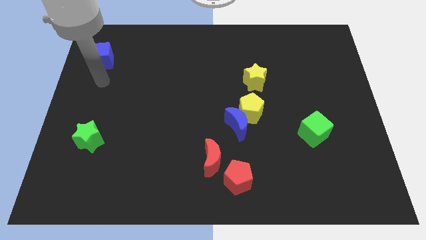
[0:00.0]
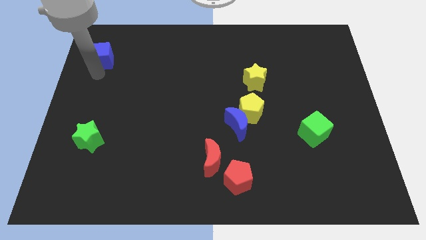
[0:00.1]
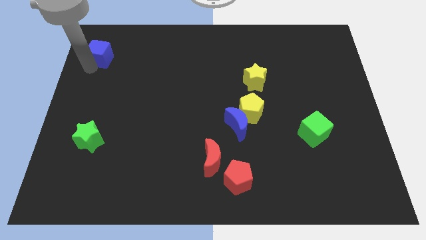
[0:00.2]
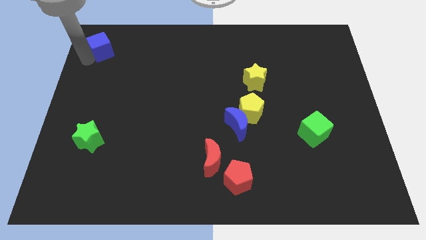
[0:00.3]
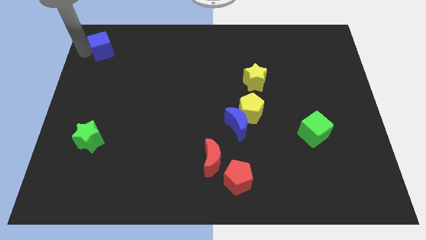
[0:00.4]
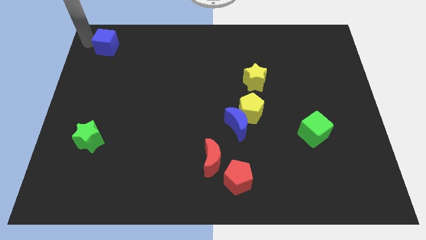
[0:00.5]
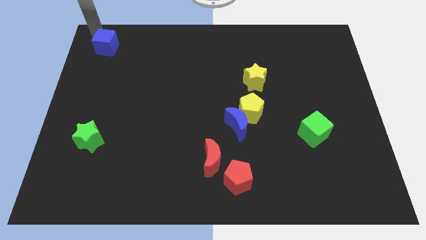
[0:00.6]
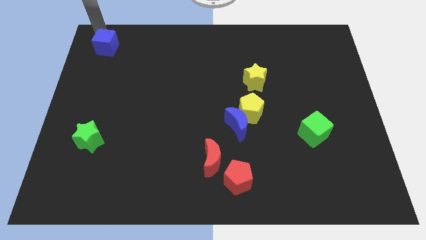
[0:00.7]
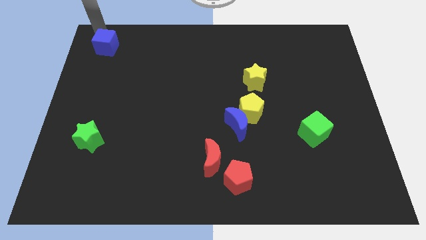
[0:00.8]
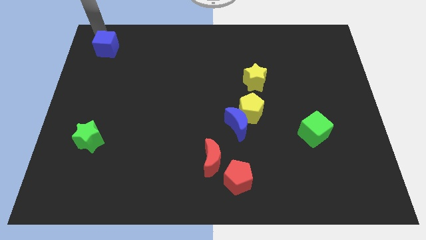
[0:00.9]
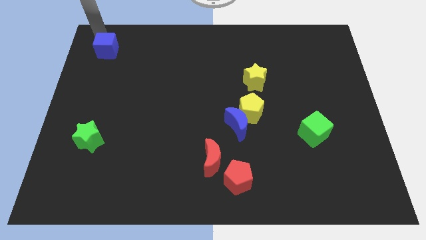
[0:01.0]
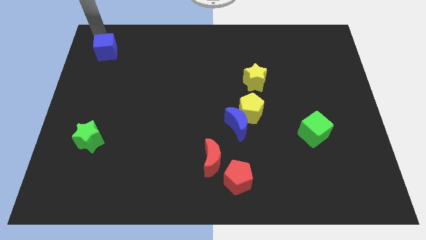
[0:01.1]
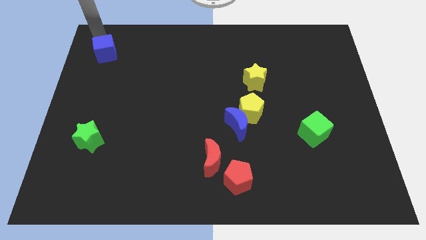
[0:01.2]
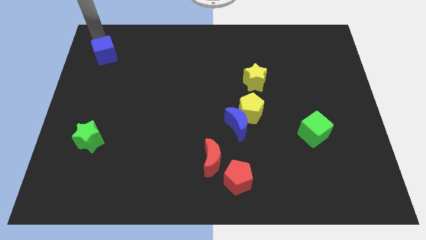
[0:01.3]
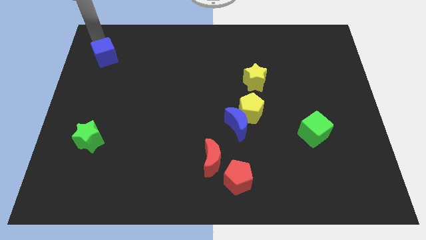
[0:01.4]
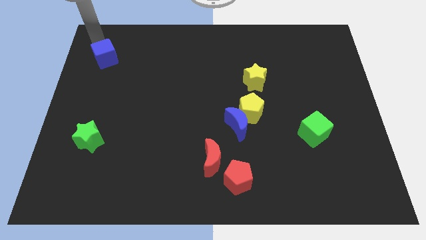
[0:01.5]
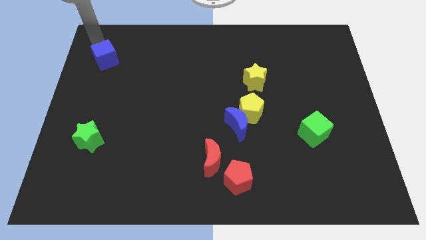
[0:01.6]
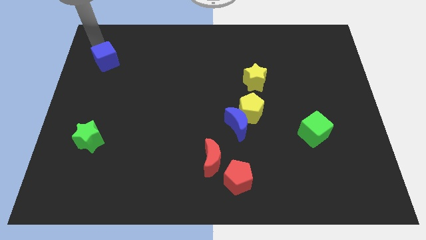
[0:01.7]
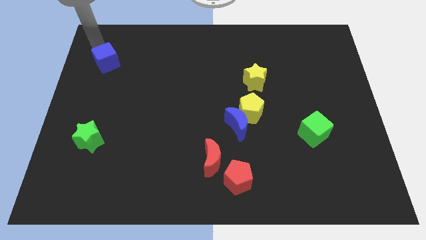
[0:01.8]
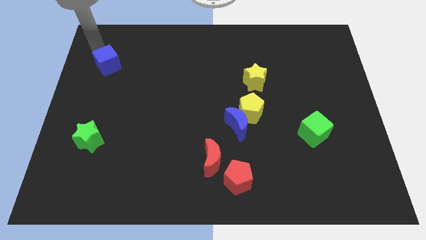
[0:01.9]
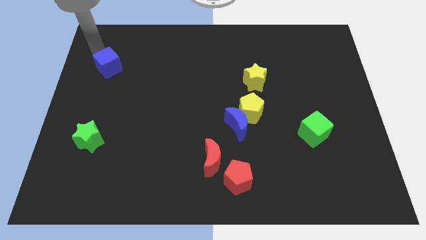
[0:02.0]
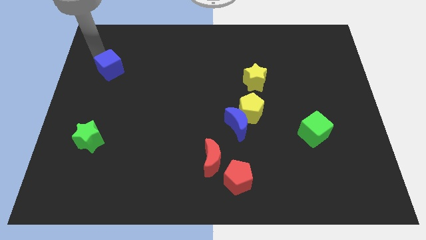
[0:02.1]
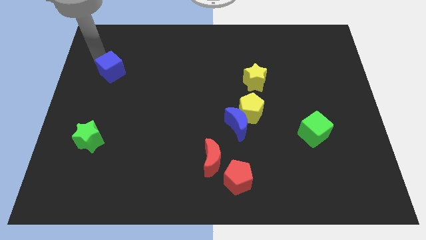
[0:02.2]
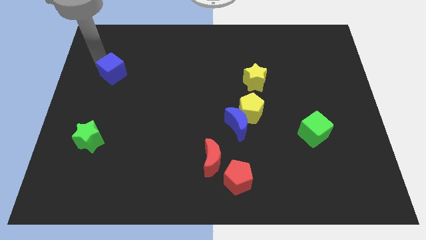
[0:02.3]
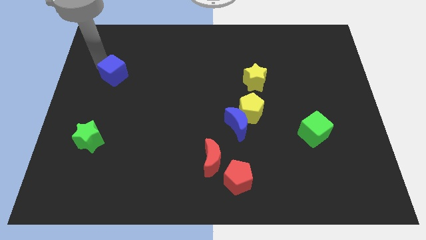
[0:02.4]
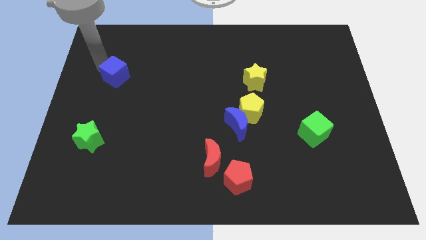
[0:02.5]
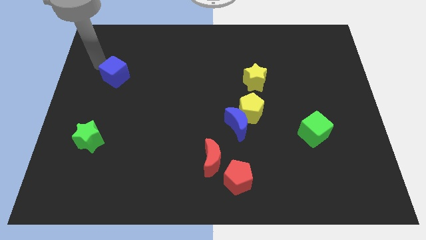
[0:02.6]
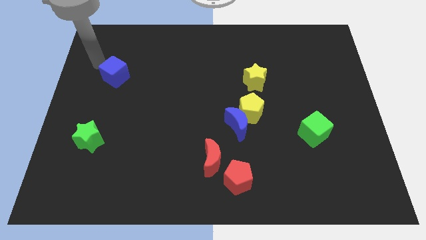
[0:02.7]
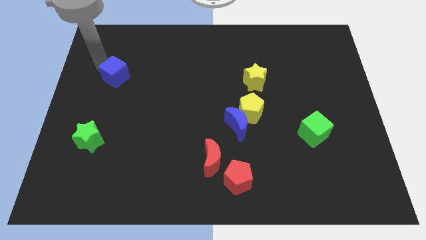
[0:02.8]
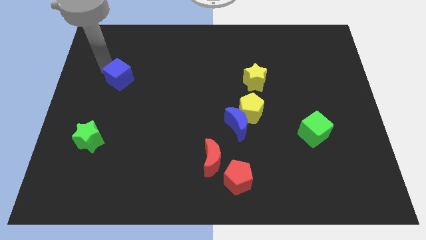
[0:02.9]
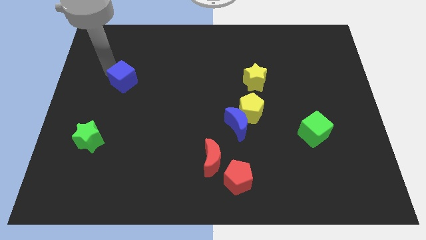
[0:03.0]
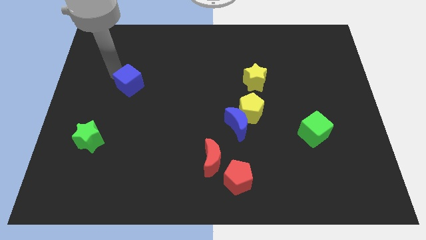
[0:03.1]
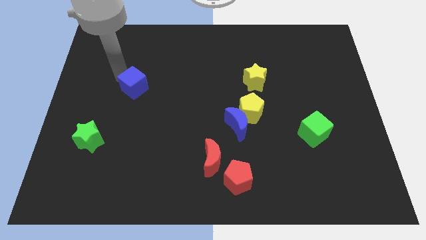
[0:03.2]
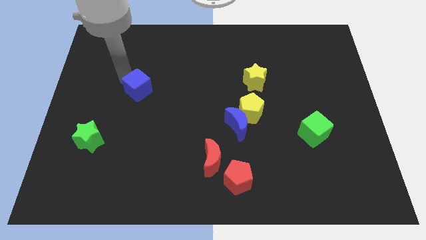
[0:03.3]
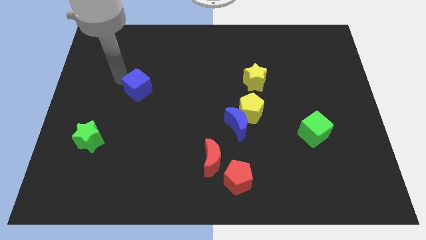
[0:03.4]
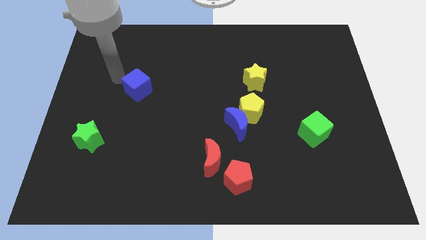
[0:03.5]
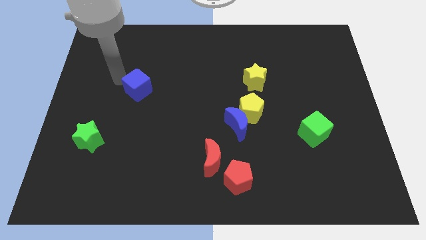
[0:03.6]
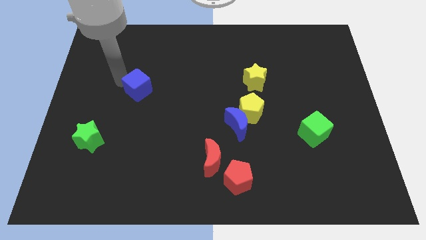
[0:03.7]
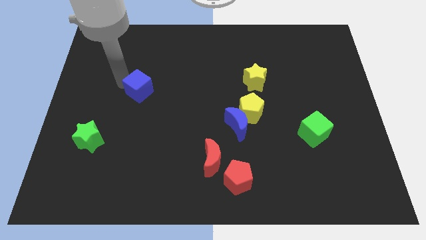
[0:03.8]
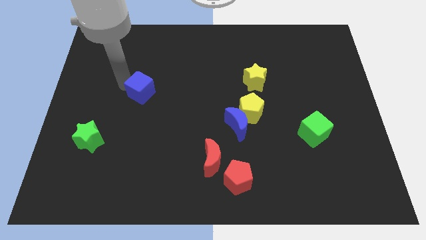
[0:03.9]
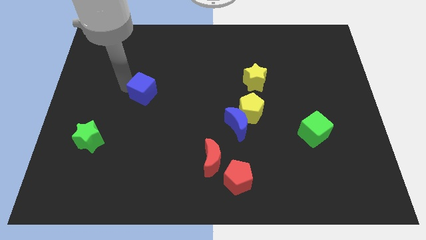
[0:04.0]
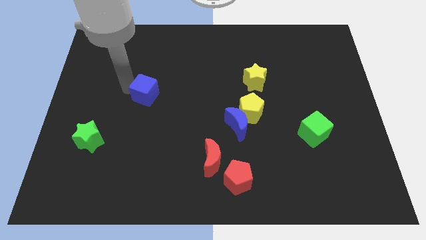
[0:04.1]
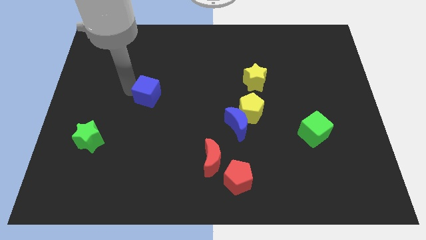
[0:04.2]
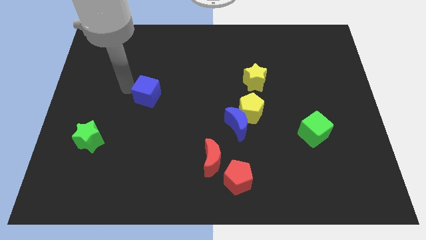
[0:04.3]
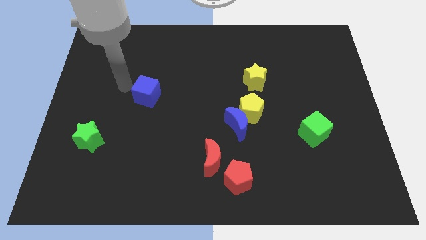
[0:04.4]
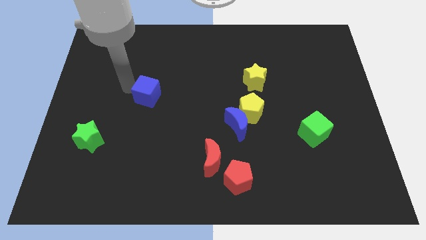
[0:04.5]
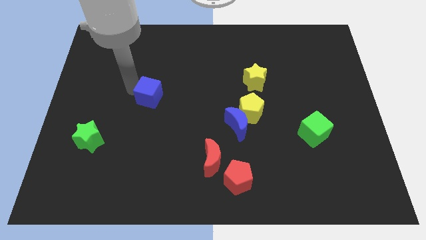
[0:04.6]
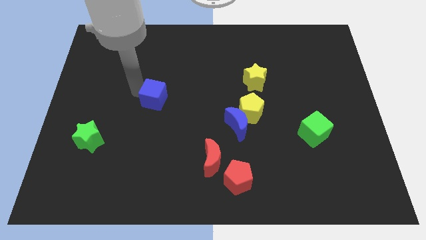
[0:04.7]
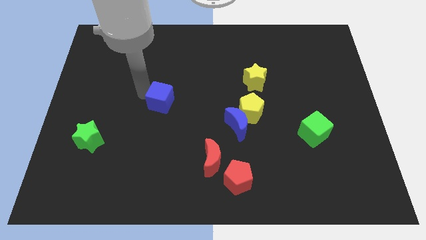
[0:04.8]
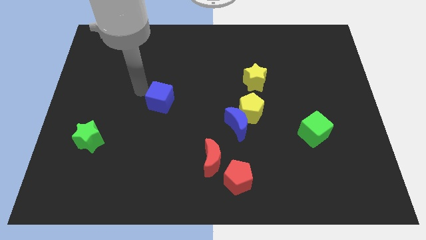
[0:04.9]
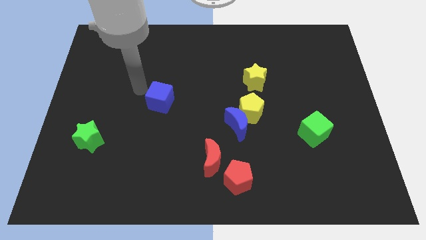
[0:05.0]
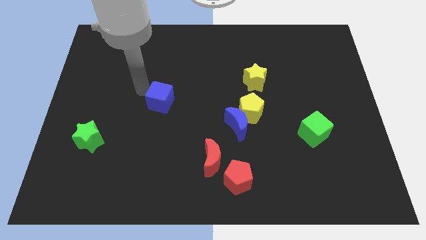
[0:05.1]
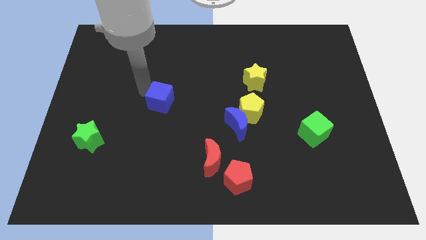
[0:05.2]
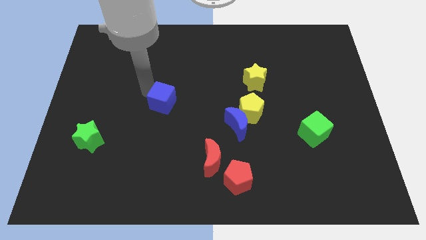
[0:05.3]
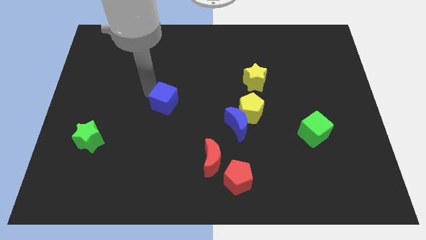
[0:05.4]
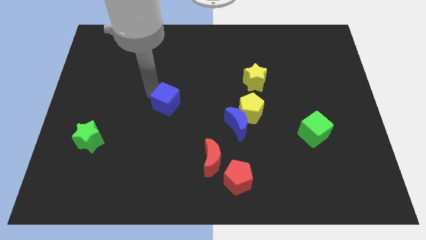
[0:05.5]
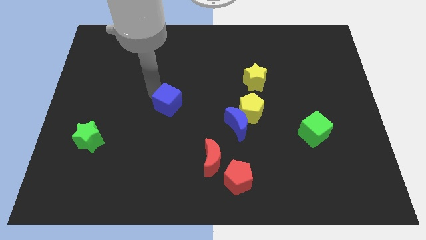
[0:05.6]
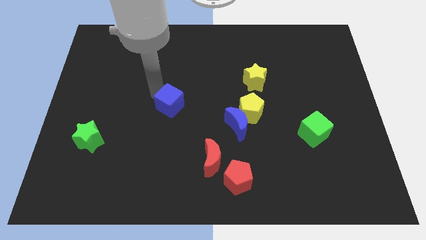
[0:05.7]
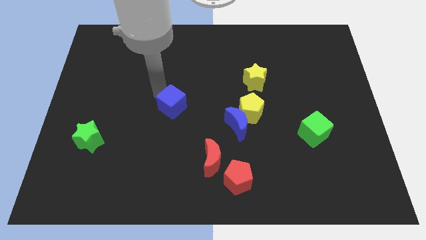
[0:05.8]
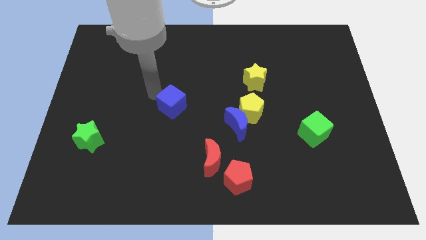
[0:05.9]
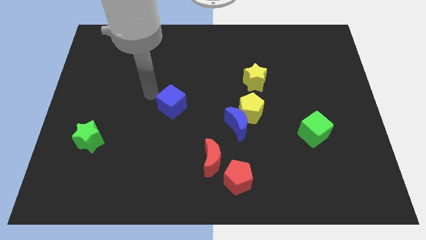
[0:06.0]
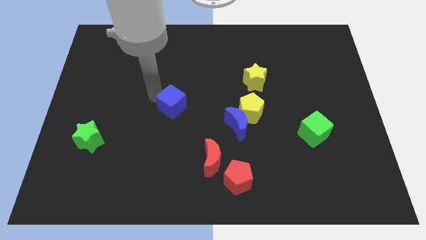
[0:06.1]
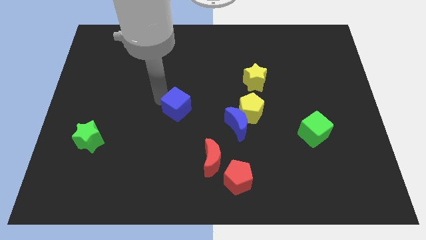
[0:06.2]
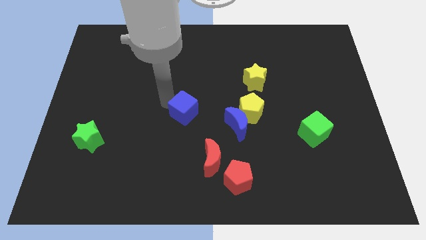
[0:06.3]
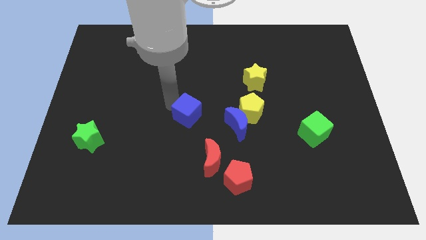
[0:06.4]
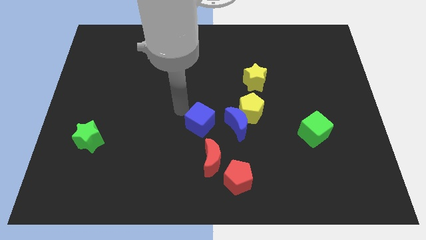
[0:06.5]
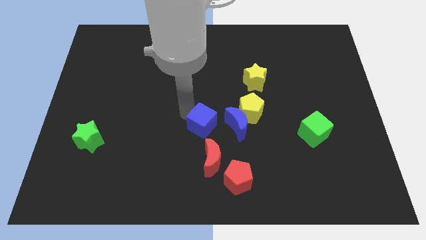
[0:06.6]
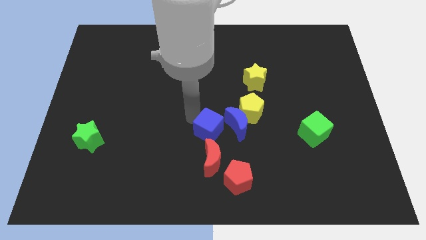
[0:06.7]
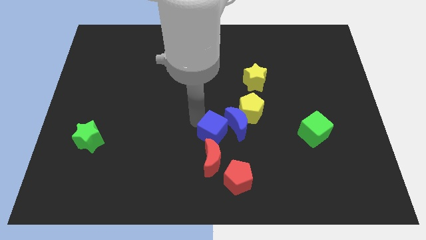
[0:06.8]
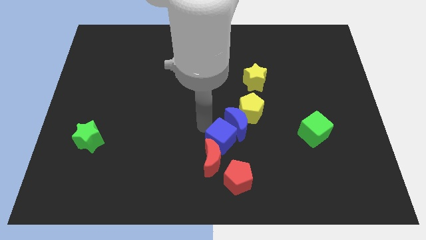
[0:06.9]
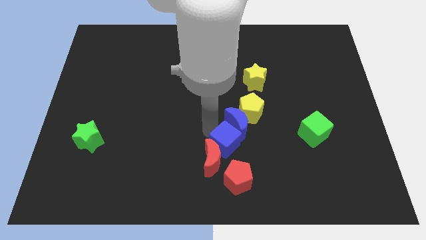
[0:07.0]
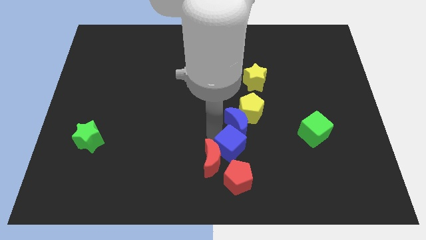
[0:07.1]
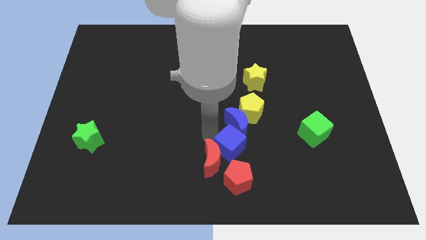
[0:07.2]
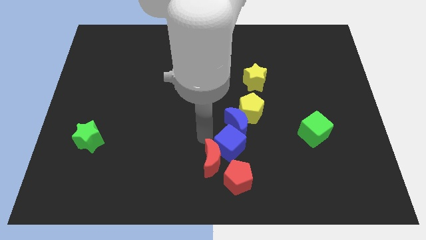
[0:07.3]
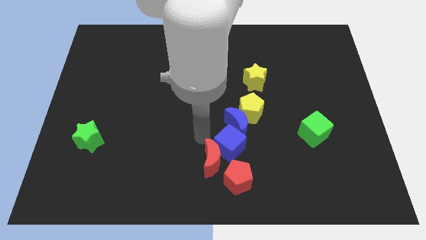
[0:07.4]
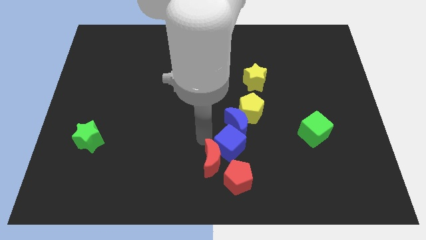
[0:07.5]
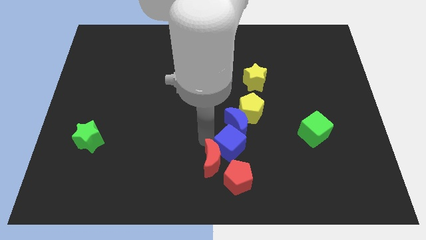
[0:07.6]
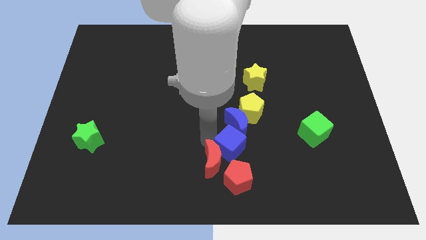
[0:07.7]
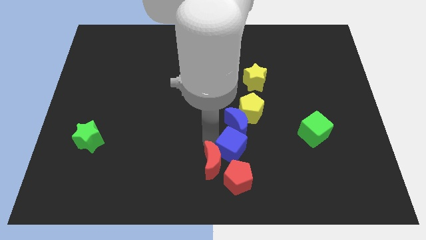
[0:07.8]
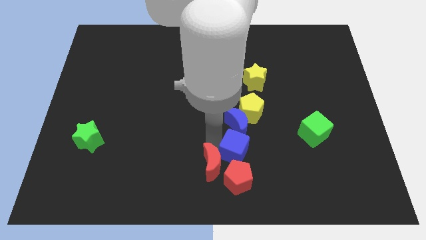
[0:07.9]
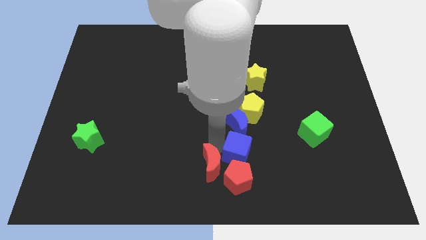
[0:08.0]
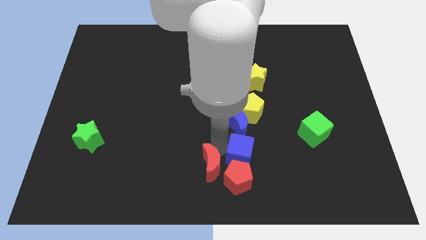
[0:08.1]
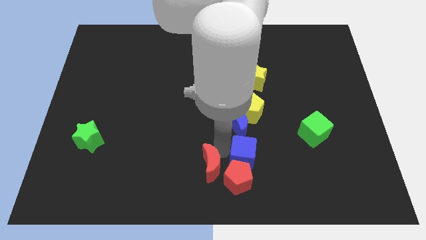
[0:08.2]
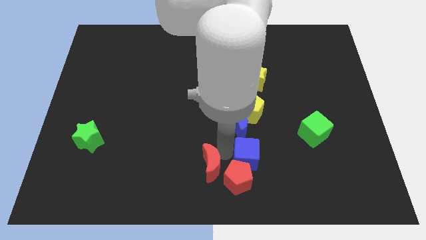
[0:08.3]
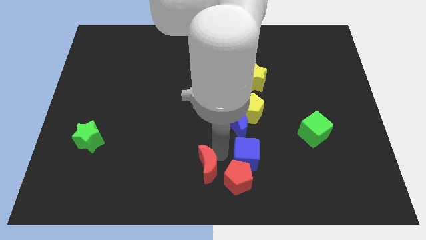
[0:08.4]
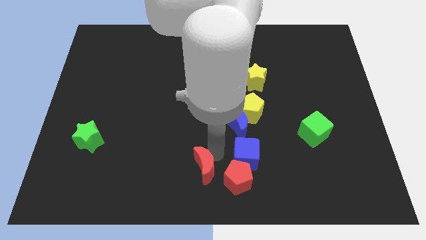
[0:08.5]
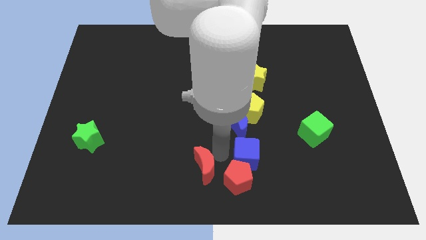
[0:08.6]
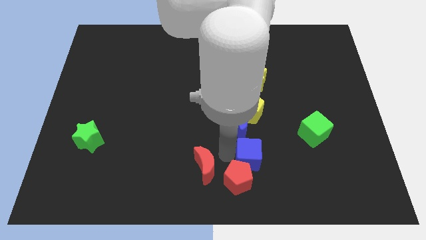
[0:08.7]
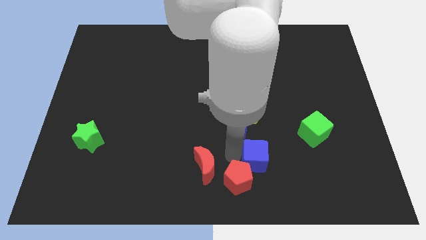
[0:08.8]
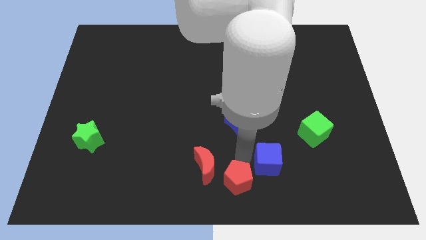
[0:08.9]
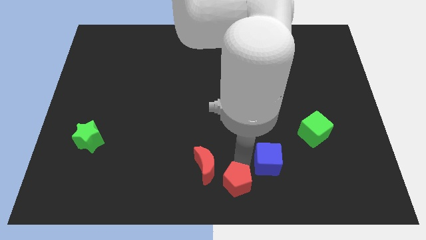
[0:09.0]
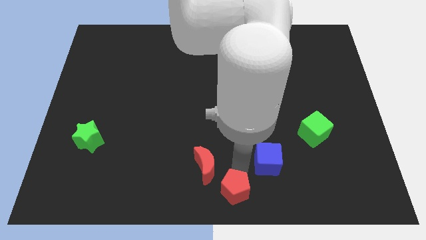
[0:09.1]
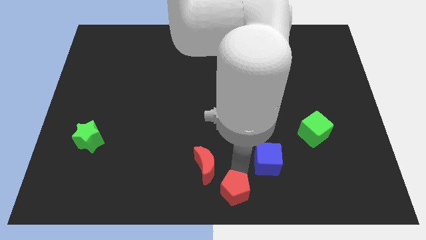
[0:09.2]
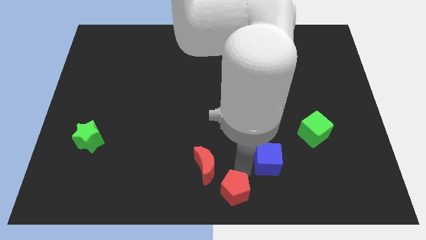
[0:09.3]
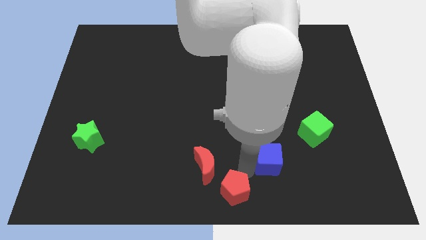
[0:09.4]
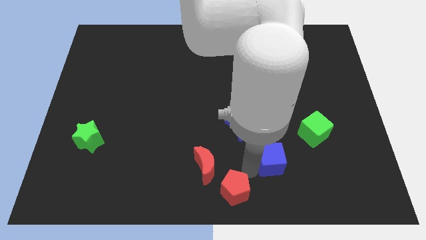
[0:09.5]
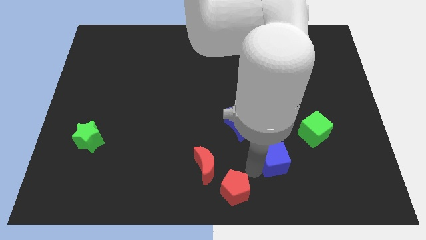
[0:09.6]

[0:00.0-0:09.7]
push the blue cube to the bottom left side of the green cube
